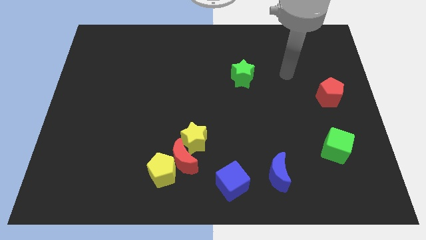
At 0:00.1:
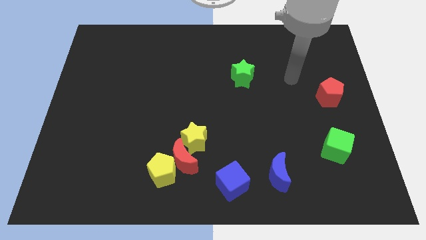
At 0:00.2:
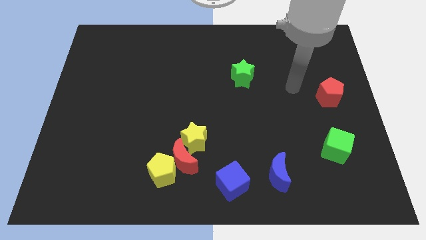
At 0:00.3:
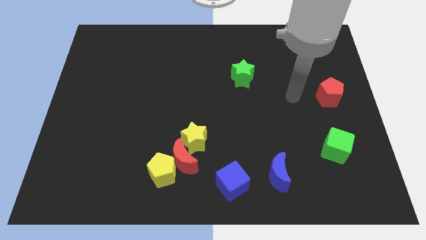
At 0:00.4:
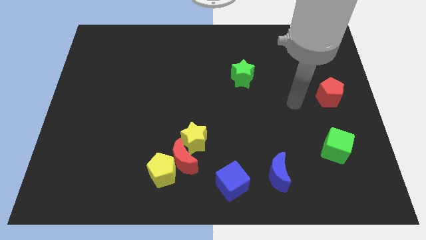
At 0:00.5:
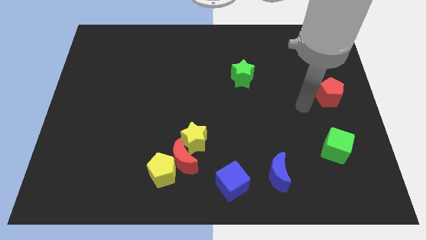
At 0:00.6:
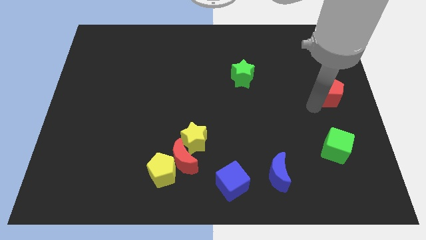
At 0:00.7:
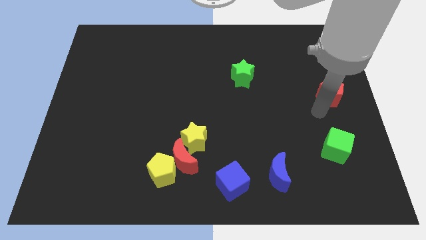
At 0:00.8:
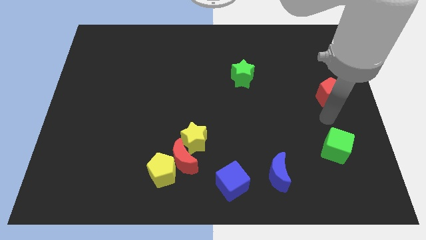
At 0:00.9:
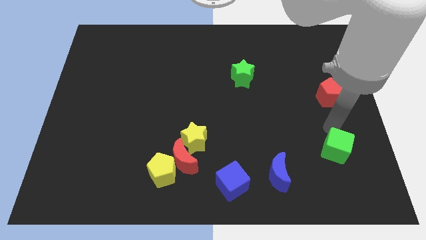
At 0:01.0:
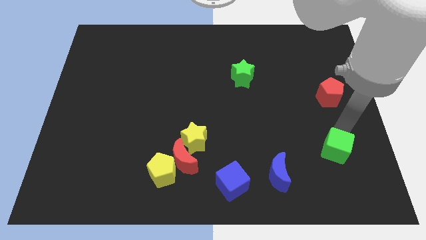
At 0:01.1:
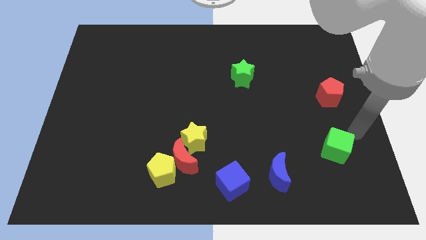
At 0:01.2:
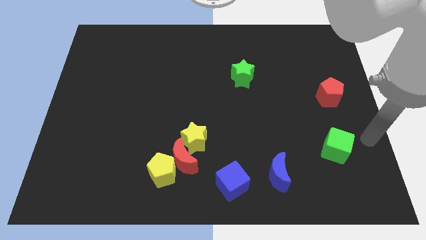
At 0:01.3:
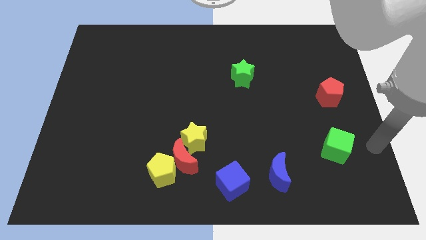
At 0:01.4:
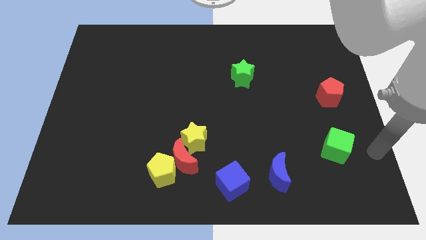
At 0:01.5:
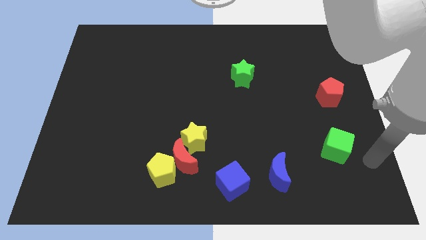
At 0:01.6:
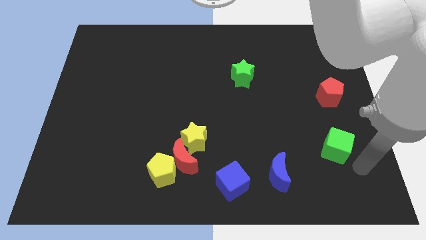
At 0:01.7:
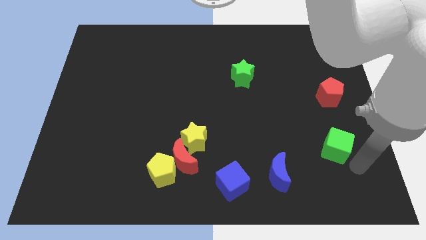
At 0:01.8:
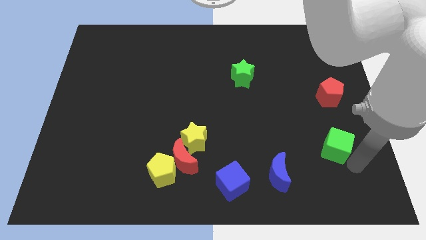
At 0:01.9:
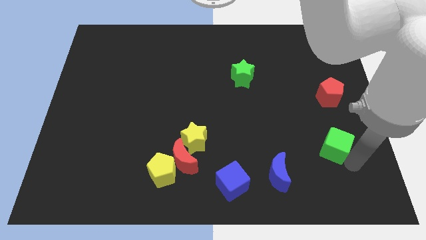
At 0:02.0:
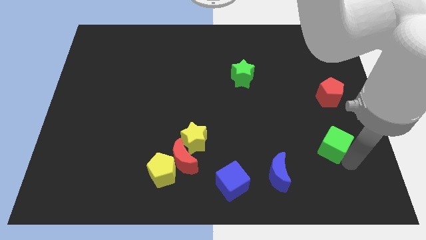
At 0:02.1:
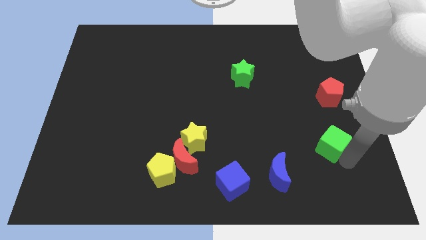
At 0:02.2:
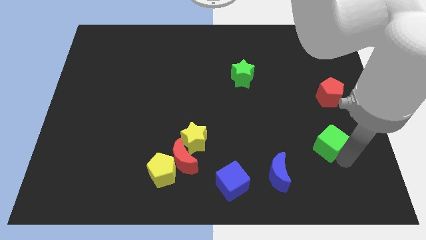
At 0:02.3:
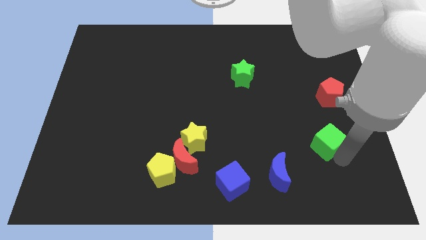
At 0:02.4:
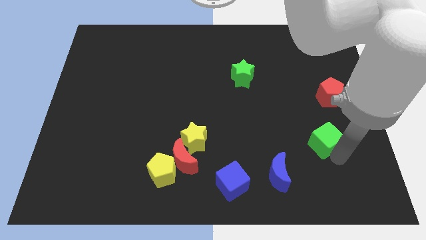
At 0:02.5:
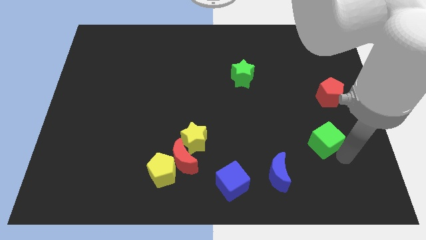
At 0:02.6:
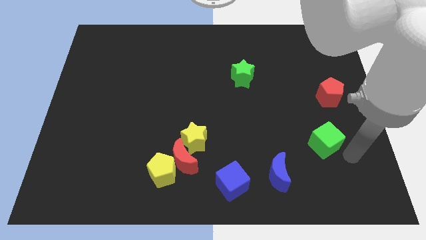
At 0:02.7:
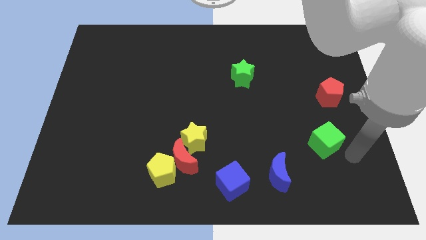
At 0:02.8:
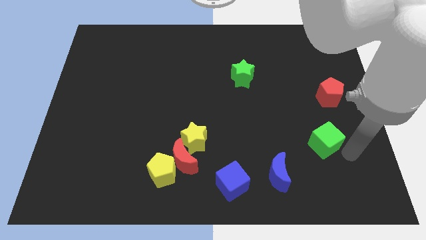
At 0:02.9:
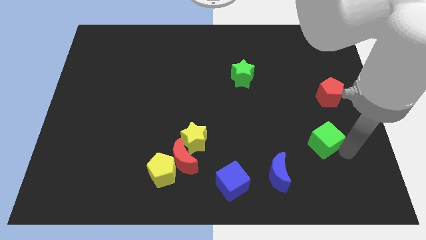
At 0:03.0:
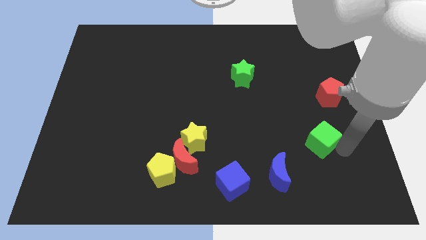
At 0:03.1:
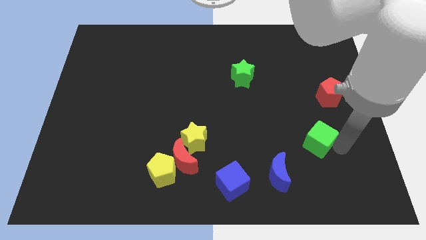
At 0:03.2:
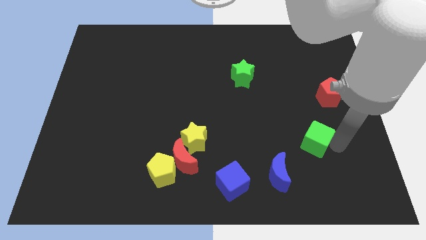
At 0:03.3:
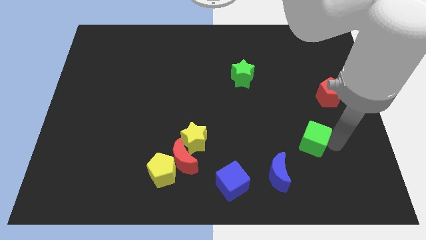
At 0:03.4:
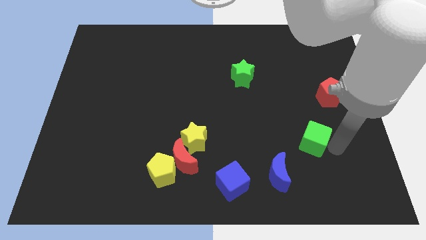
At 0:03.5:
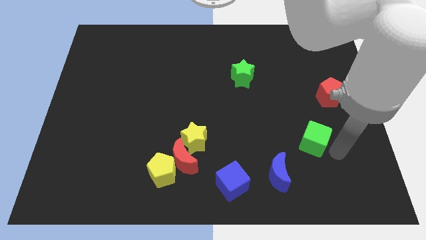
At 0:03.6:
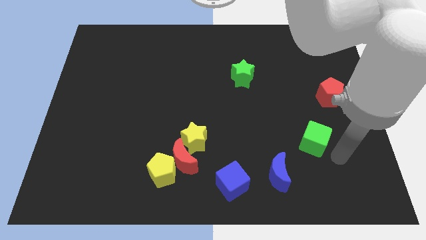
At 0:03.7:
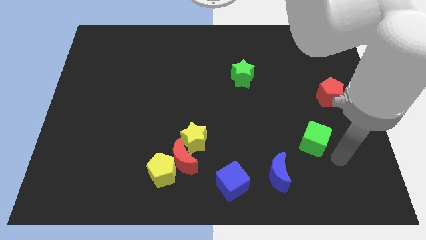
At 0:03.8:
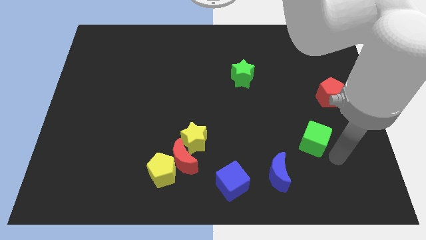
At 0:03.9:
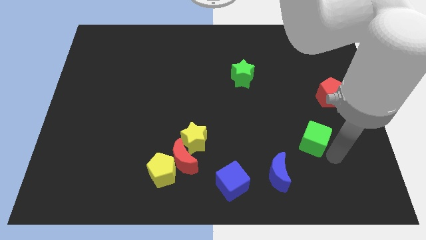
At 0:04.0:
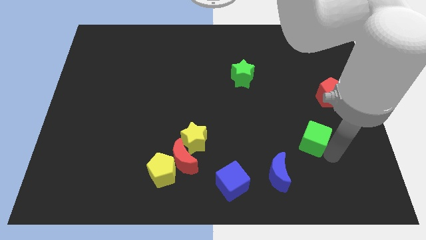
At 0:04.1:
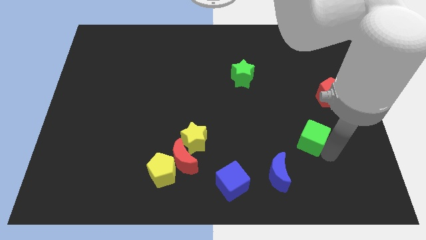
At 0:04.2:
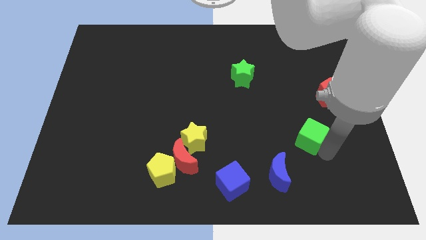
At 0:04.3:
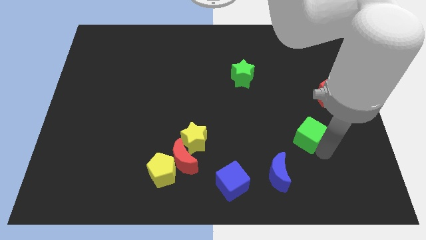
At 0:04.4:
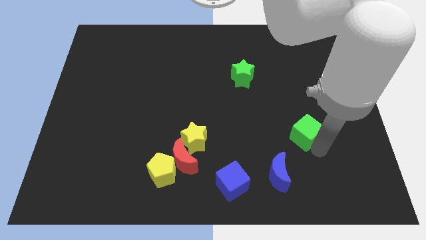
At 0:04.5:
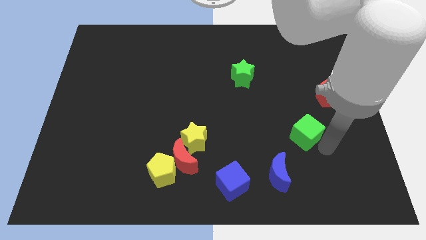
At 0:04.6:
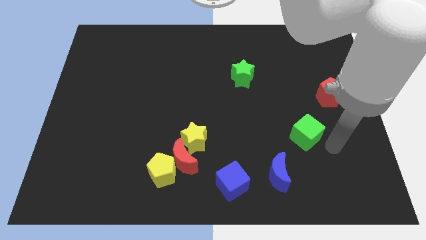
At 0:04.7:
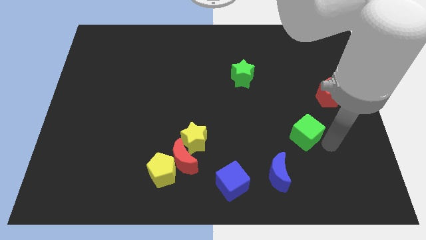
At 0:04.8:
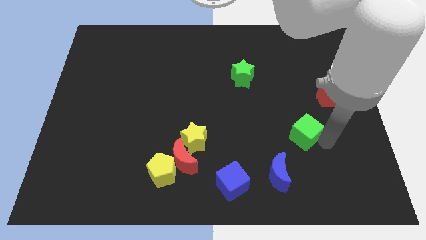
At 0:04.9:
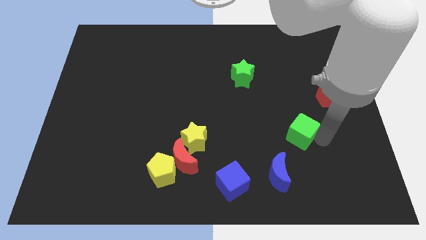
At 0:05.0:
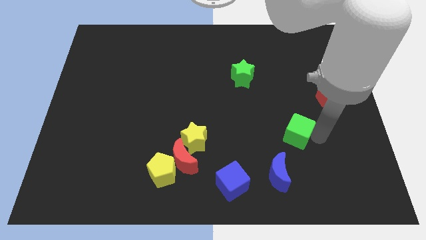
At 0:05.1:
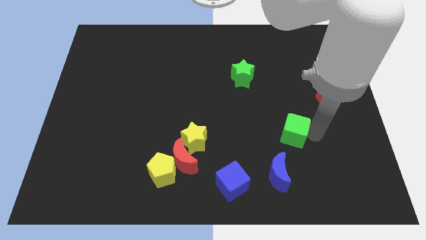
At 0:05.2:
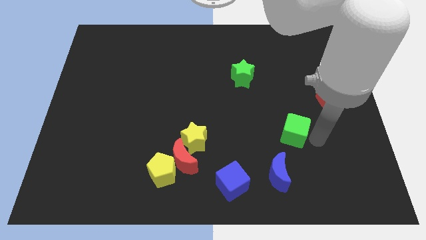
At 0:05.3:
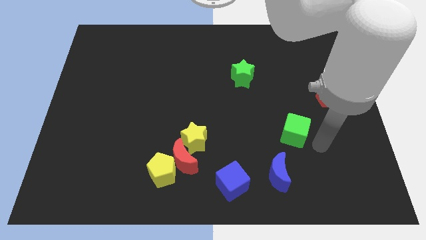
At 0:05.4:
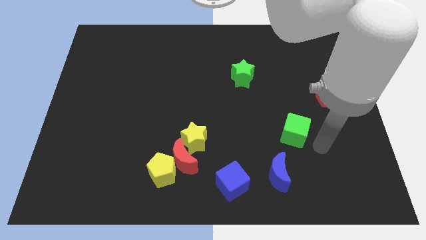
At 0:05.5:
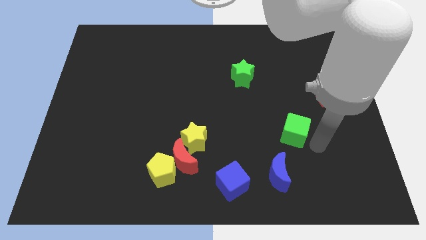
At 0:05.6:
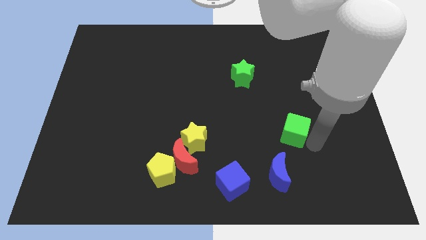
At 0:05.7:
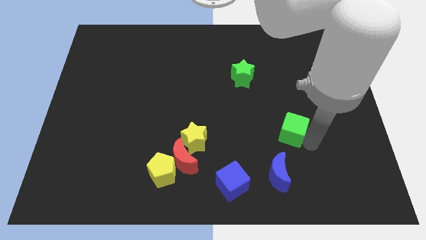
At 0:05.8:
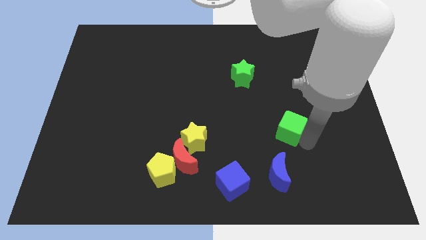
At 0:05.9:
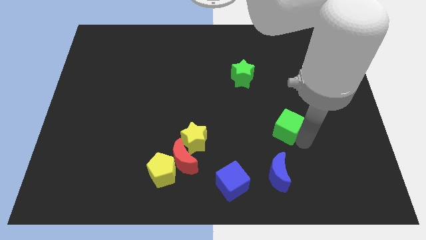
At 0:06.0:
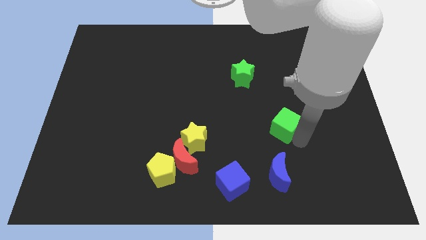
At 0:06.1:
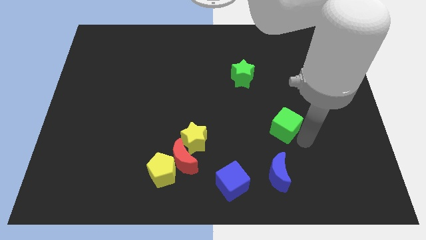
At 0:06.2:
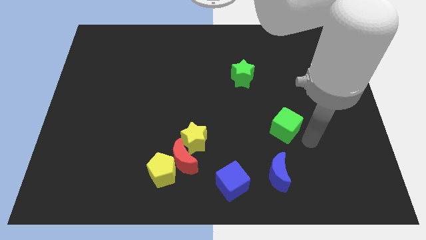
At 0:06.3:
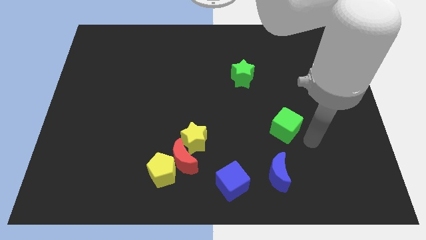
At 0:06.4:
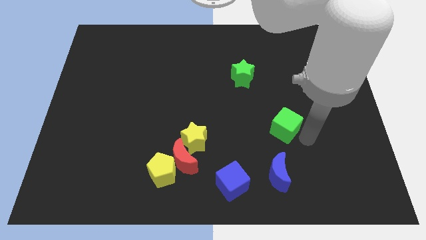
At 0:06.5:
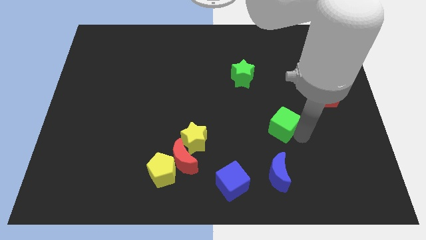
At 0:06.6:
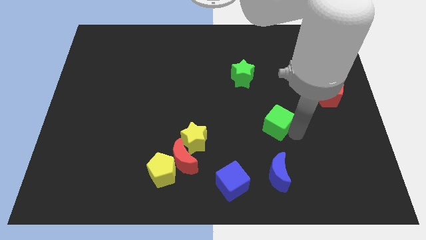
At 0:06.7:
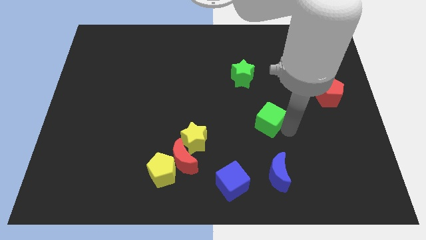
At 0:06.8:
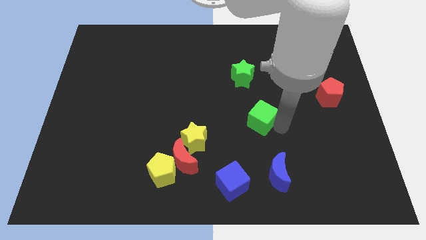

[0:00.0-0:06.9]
put the green cube to the middle of the board
